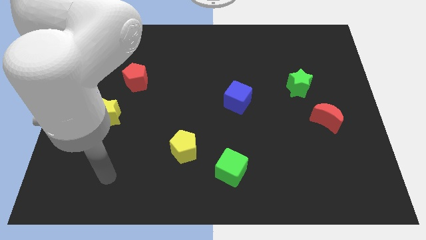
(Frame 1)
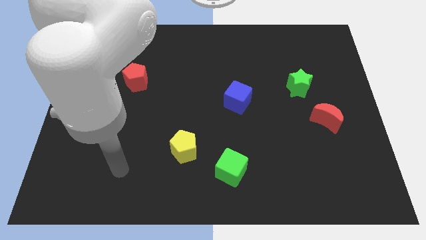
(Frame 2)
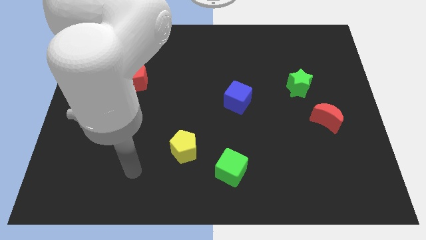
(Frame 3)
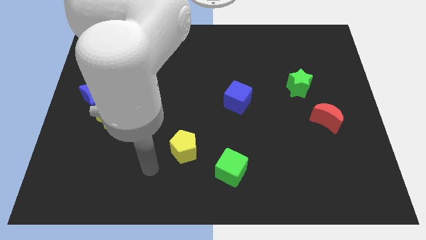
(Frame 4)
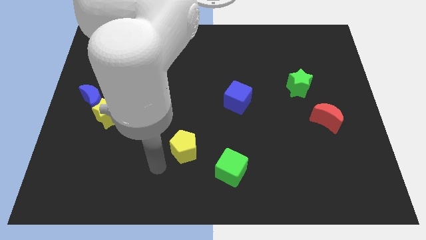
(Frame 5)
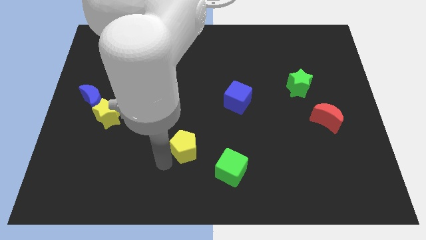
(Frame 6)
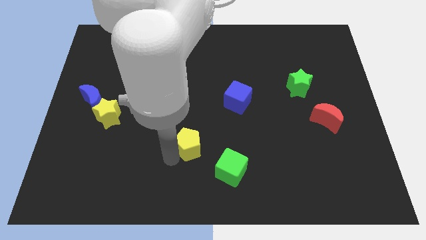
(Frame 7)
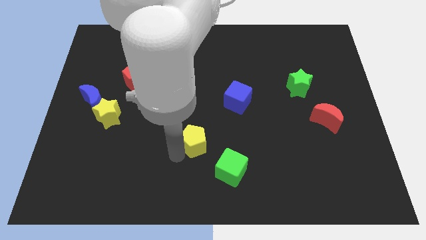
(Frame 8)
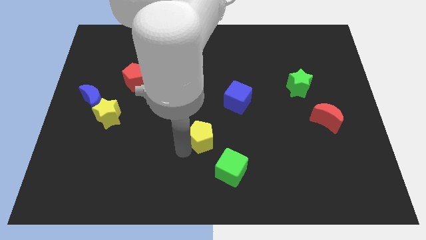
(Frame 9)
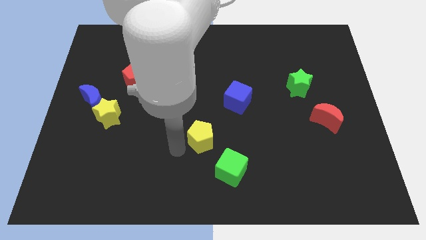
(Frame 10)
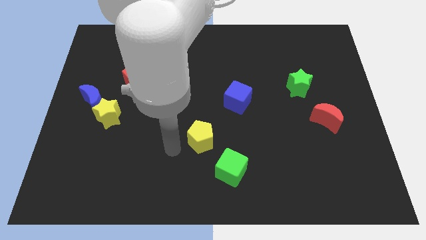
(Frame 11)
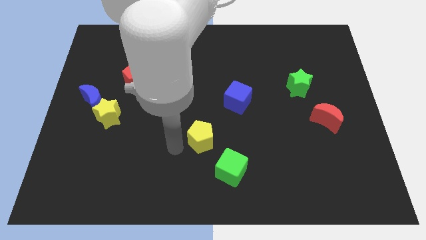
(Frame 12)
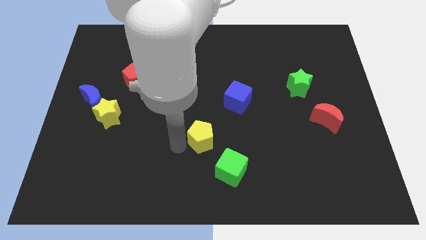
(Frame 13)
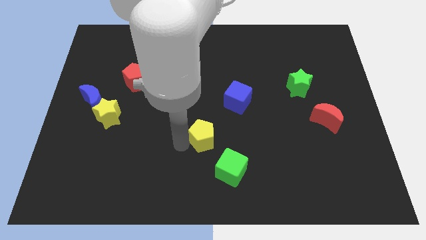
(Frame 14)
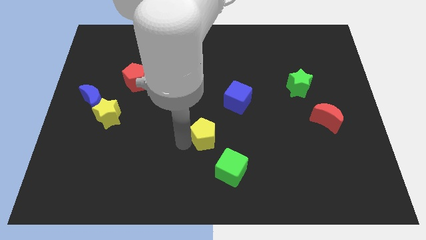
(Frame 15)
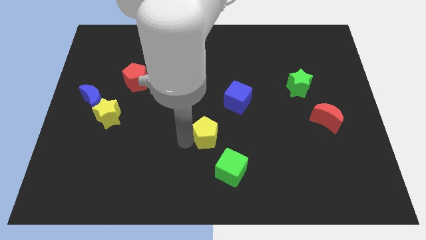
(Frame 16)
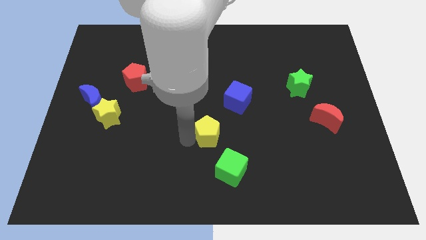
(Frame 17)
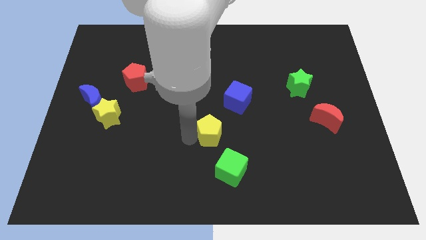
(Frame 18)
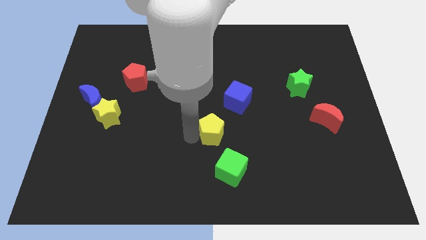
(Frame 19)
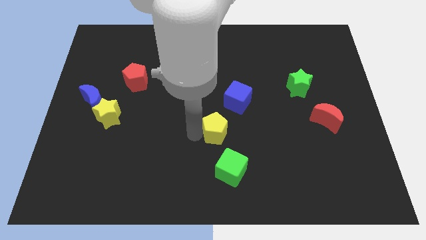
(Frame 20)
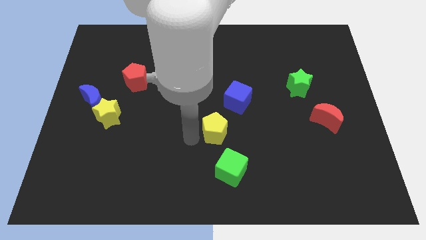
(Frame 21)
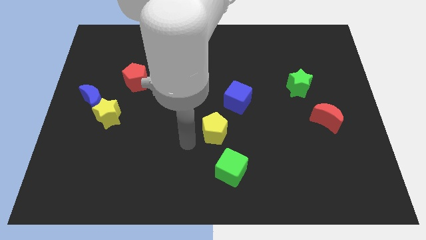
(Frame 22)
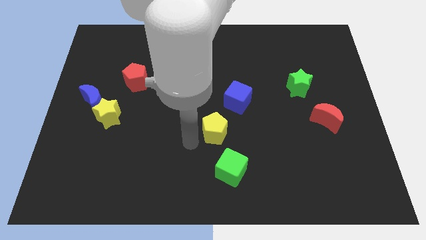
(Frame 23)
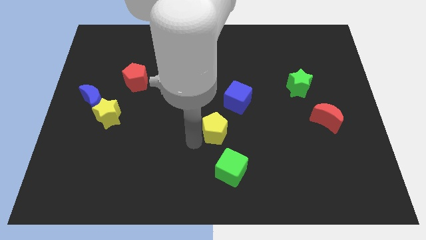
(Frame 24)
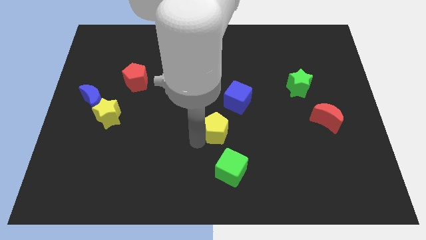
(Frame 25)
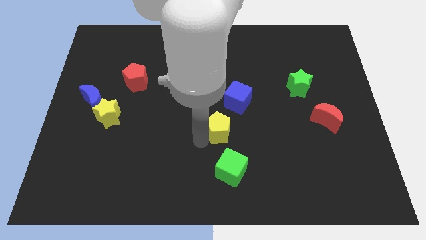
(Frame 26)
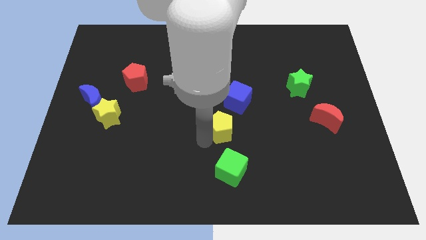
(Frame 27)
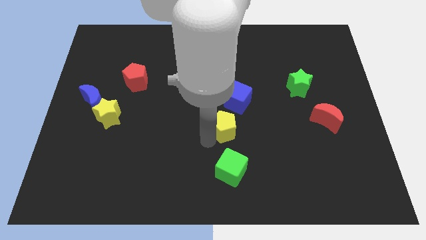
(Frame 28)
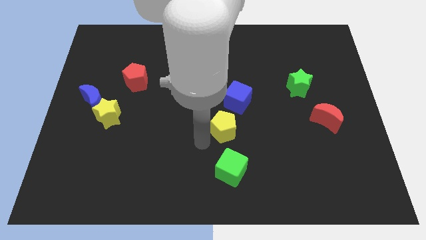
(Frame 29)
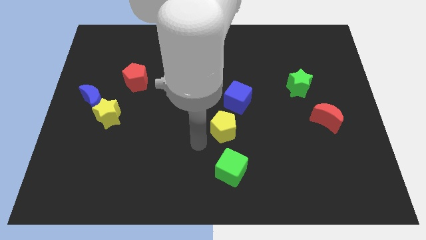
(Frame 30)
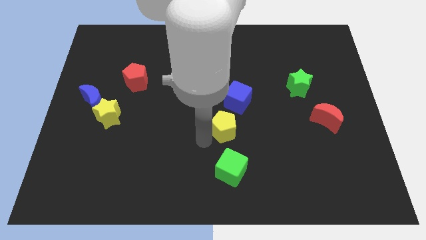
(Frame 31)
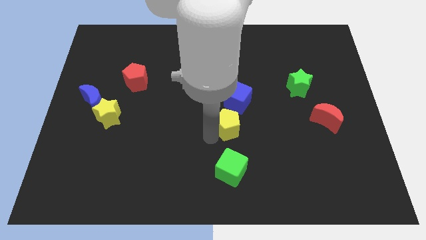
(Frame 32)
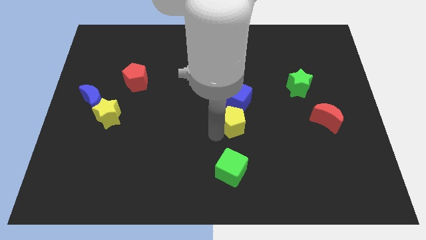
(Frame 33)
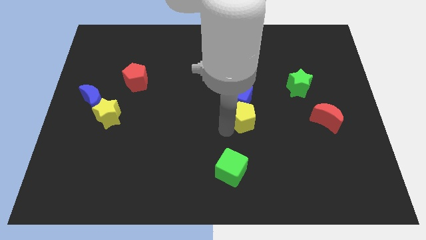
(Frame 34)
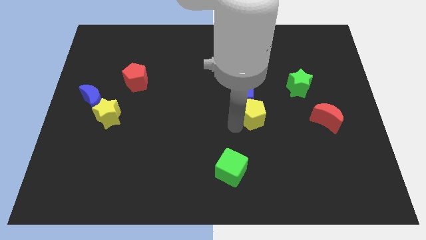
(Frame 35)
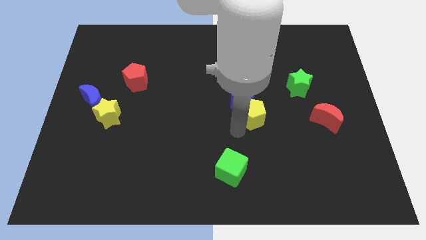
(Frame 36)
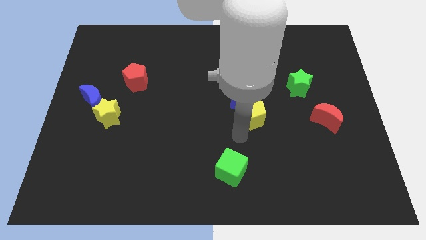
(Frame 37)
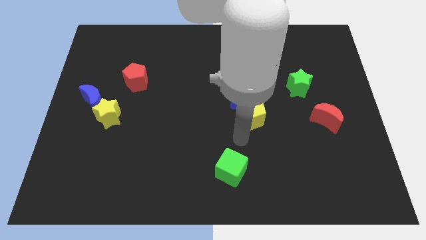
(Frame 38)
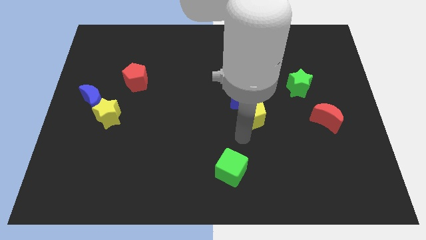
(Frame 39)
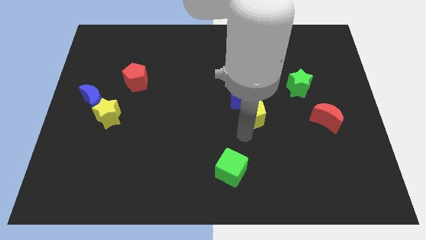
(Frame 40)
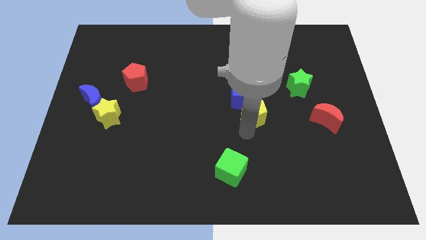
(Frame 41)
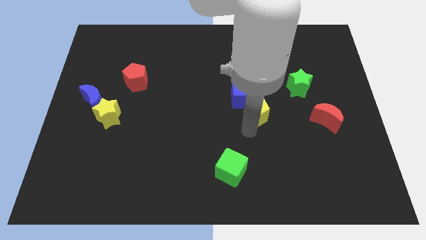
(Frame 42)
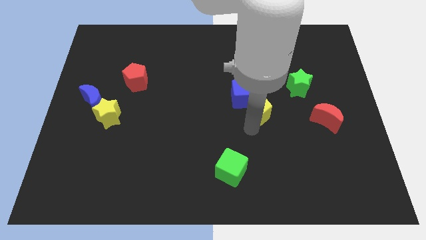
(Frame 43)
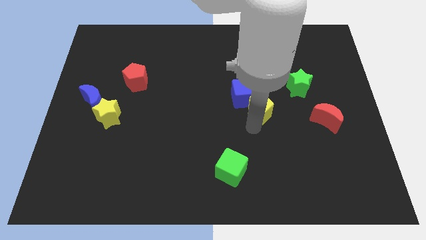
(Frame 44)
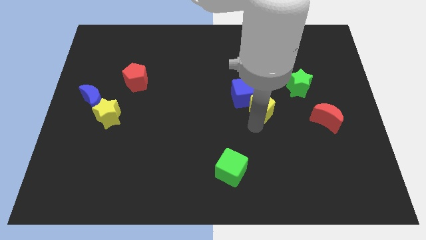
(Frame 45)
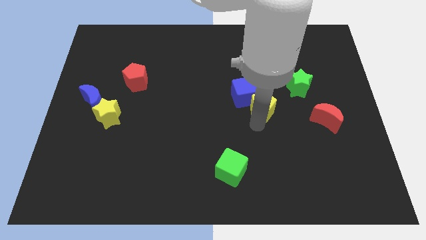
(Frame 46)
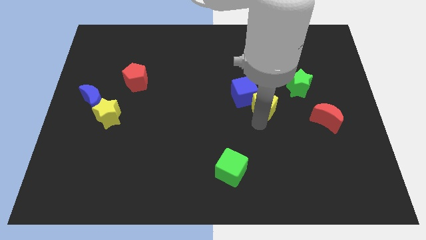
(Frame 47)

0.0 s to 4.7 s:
move the yellow pentagon upwards and then to the right

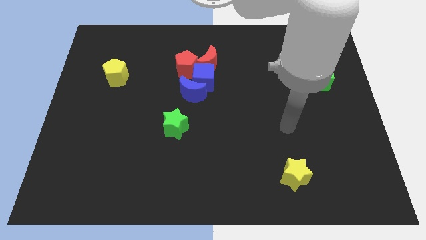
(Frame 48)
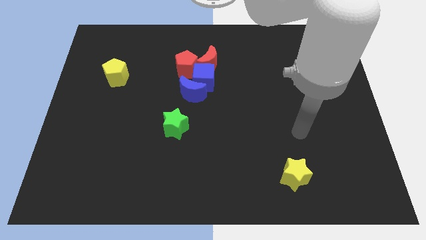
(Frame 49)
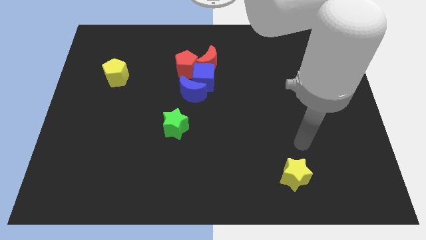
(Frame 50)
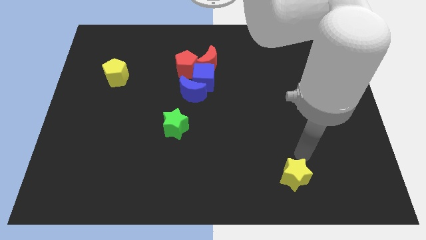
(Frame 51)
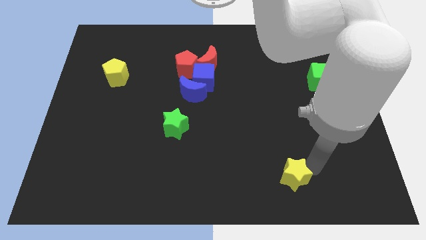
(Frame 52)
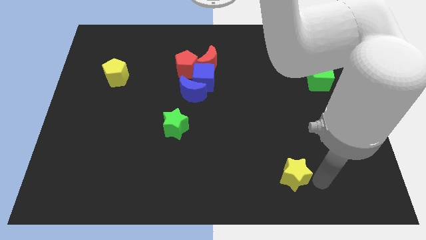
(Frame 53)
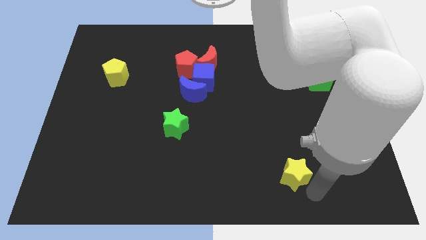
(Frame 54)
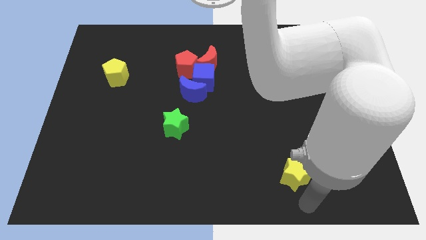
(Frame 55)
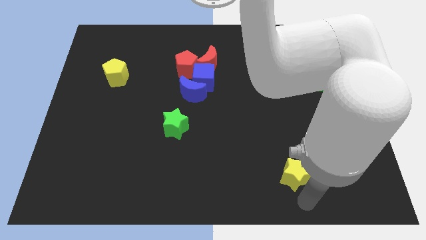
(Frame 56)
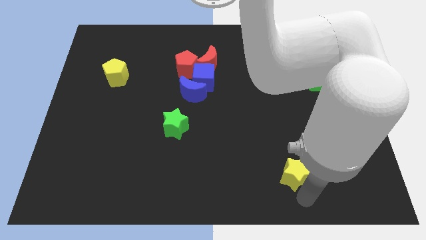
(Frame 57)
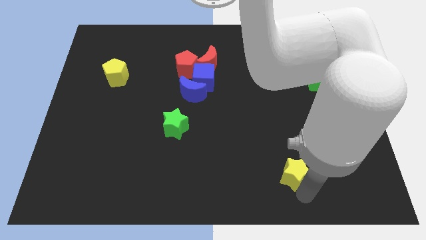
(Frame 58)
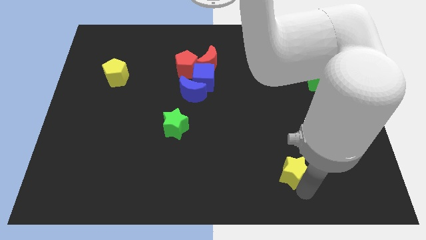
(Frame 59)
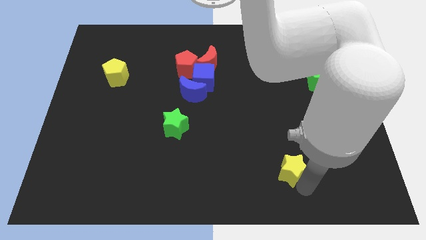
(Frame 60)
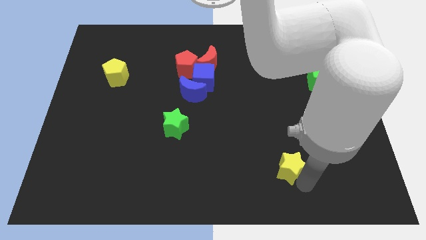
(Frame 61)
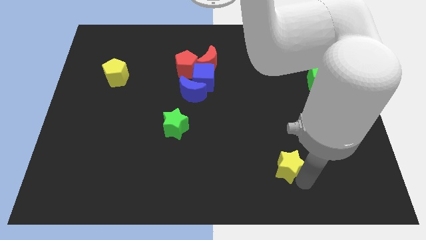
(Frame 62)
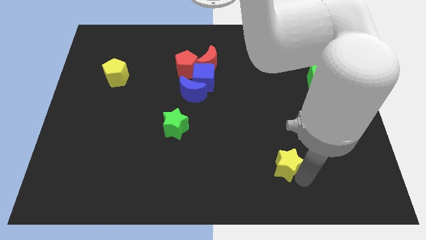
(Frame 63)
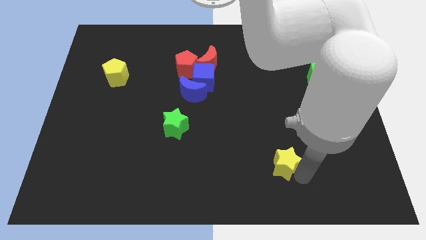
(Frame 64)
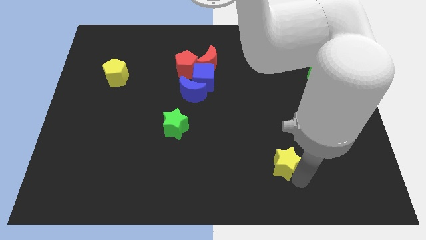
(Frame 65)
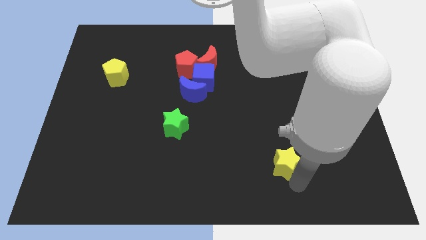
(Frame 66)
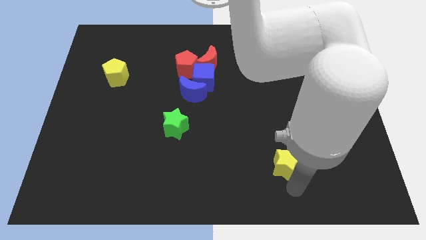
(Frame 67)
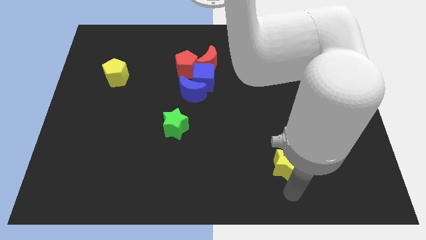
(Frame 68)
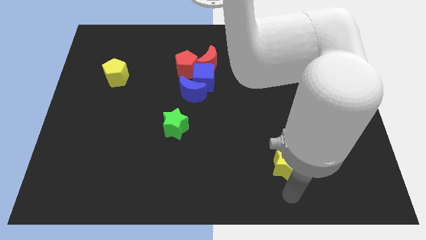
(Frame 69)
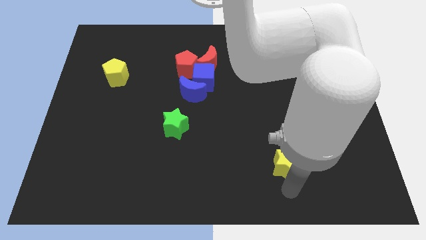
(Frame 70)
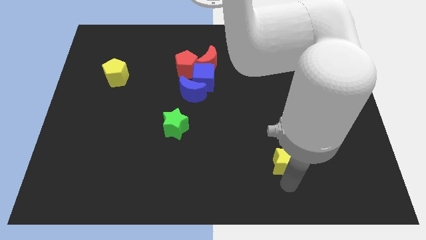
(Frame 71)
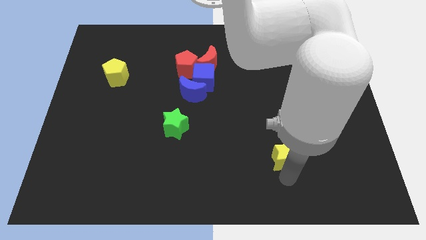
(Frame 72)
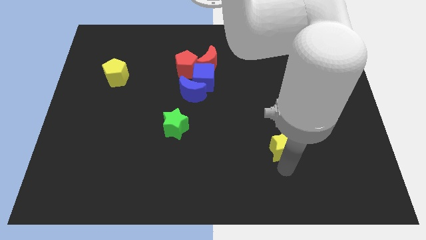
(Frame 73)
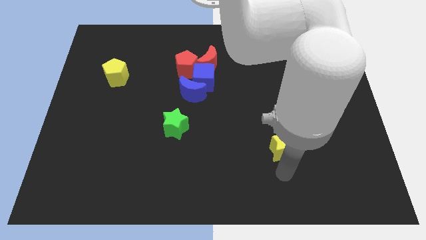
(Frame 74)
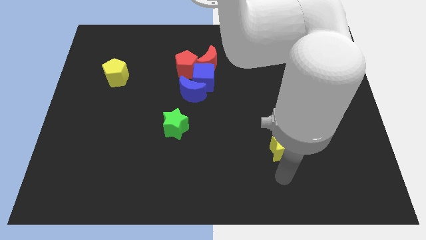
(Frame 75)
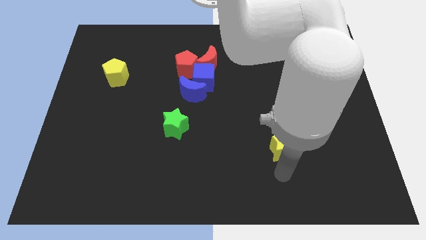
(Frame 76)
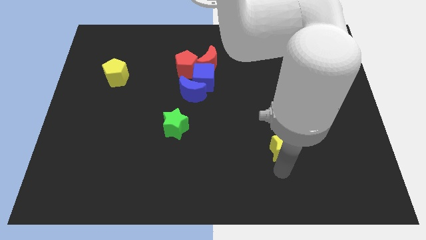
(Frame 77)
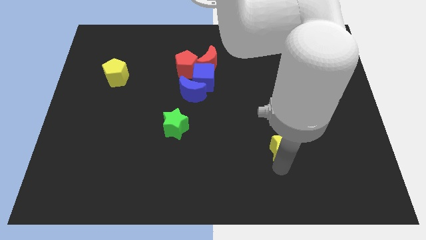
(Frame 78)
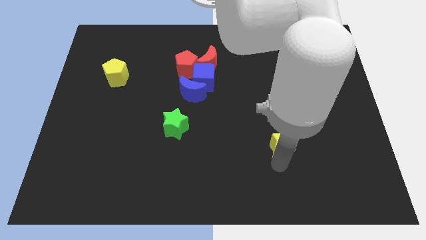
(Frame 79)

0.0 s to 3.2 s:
move the yellow star a little up

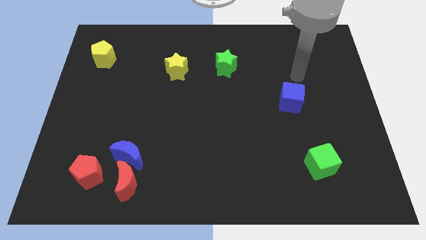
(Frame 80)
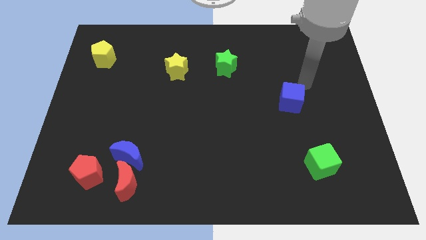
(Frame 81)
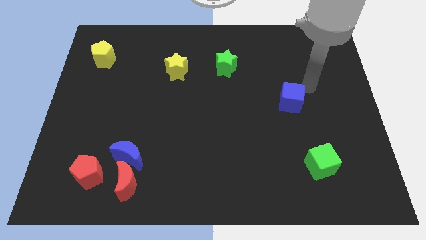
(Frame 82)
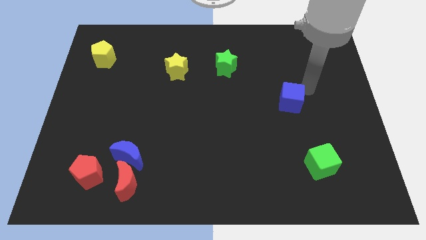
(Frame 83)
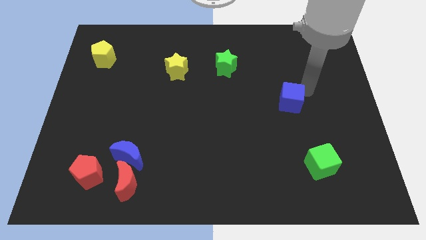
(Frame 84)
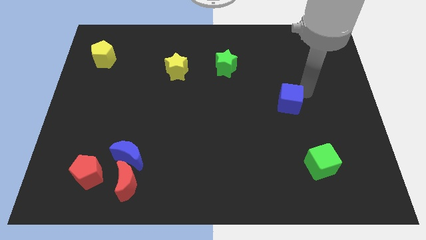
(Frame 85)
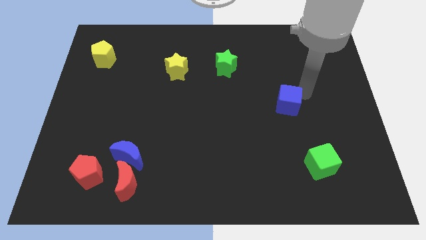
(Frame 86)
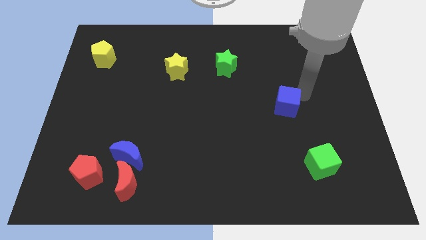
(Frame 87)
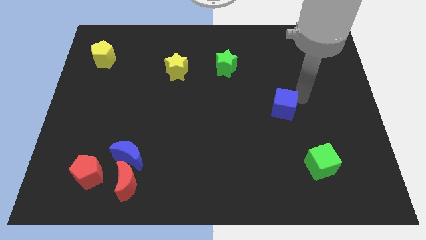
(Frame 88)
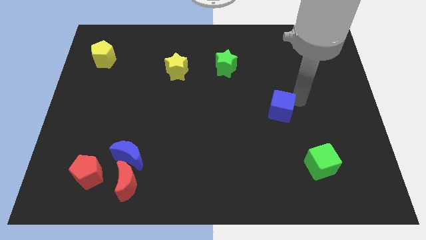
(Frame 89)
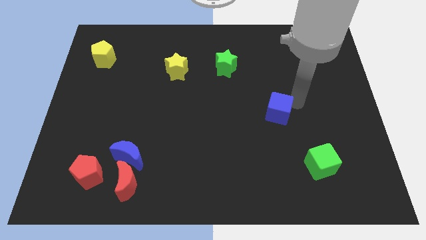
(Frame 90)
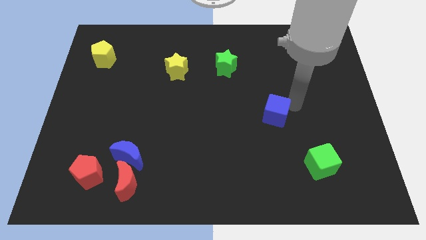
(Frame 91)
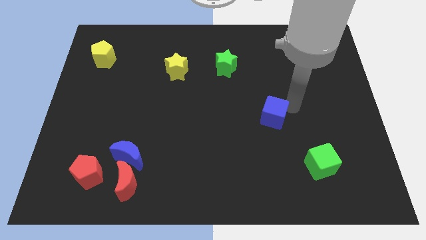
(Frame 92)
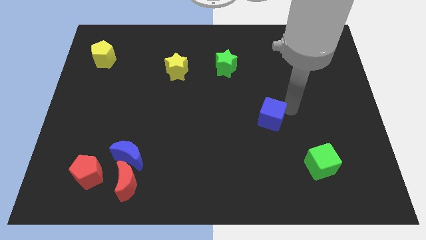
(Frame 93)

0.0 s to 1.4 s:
push the blue cube diagonally downwards and left slightly
